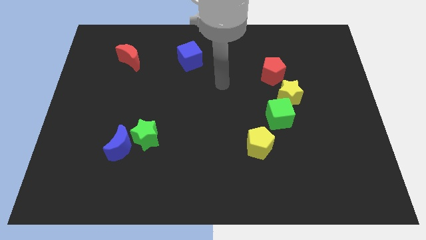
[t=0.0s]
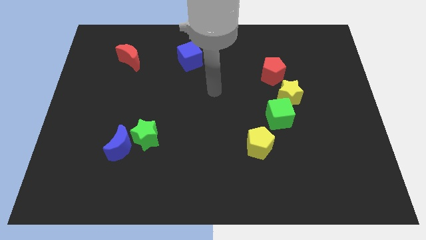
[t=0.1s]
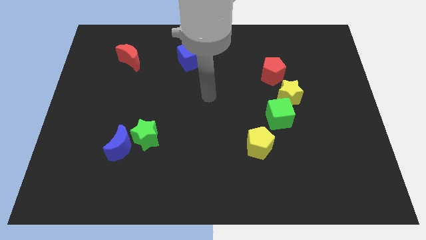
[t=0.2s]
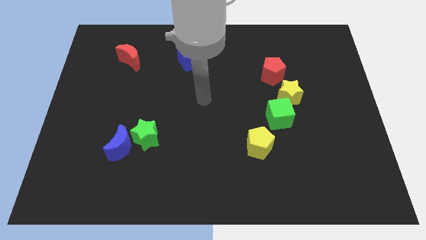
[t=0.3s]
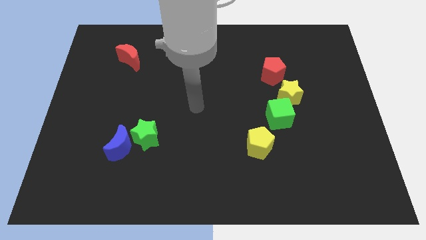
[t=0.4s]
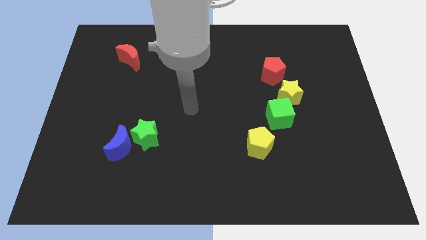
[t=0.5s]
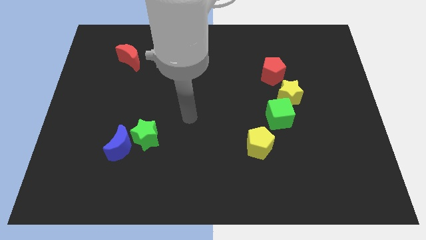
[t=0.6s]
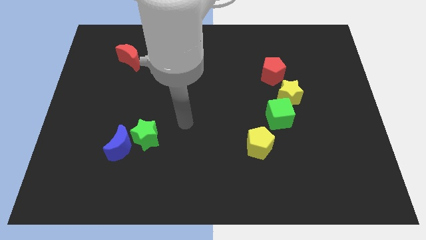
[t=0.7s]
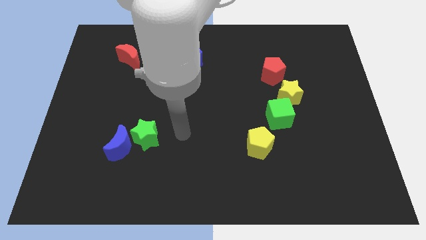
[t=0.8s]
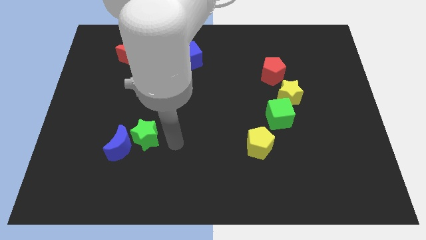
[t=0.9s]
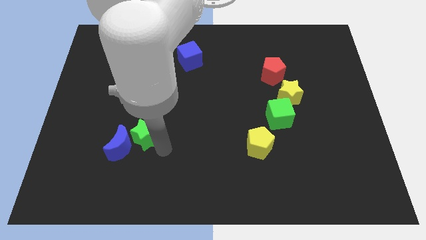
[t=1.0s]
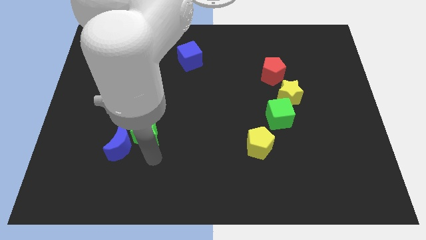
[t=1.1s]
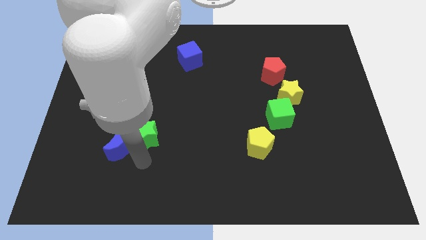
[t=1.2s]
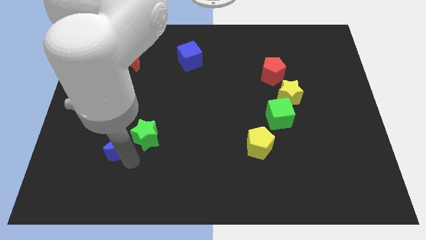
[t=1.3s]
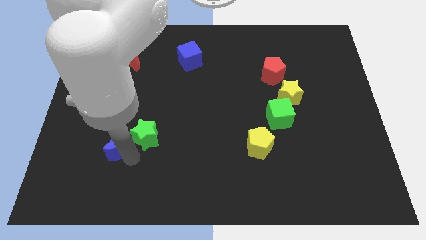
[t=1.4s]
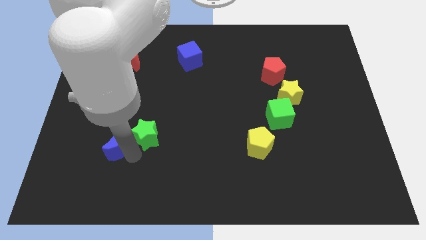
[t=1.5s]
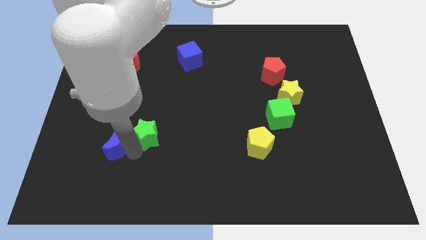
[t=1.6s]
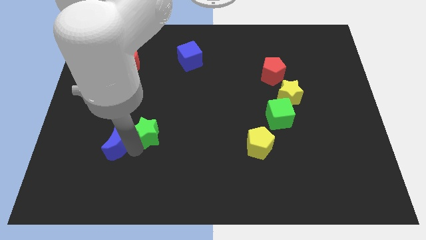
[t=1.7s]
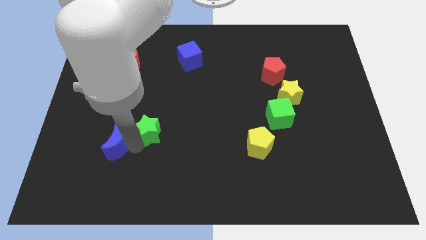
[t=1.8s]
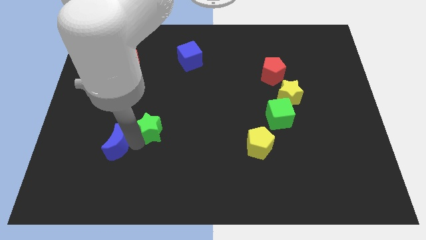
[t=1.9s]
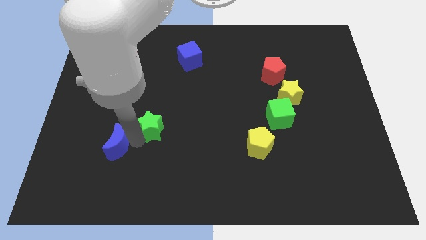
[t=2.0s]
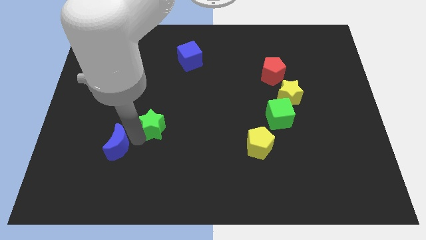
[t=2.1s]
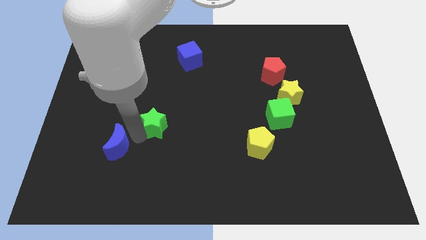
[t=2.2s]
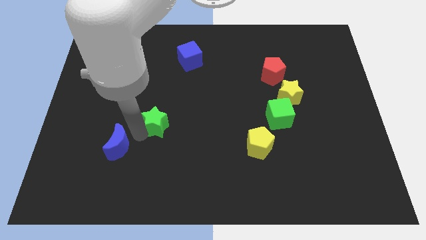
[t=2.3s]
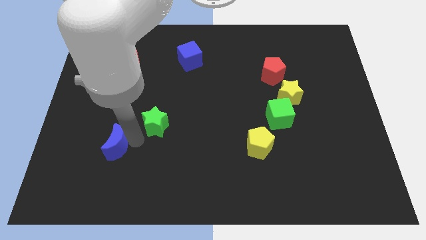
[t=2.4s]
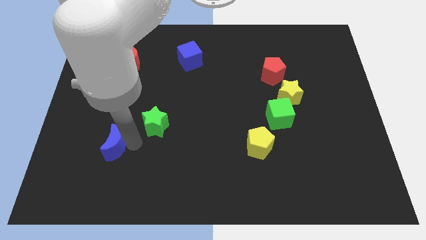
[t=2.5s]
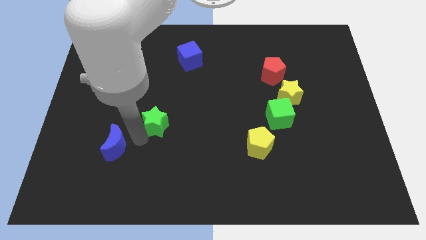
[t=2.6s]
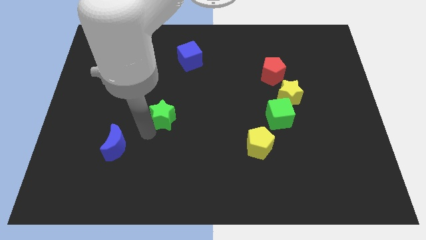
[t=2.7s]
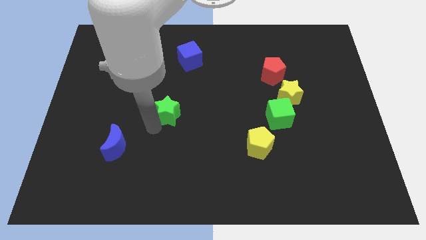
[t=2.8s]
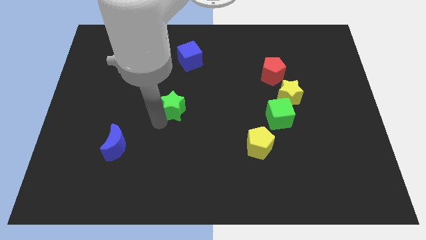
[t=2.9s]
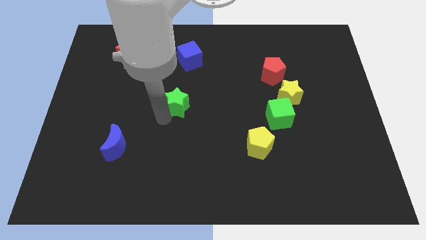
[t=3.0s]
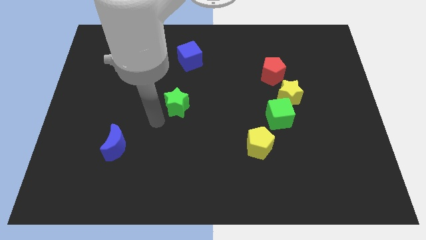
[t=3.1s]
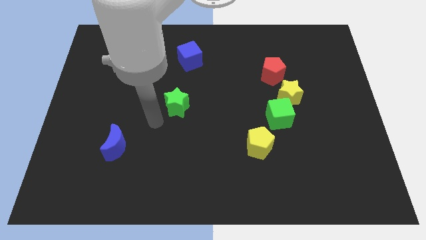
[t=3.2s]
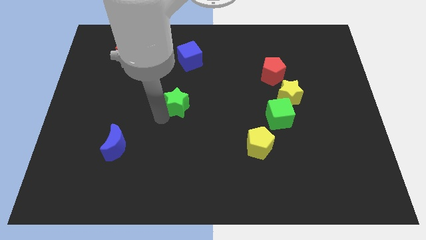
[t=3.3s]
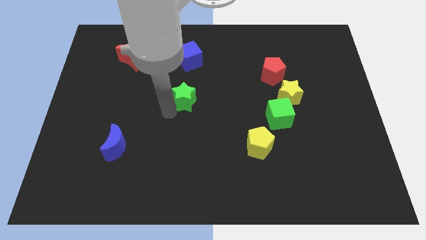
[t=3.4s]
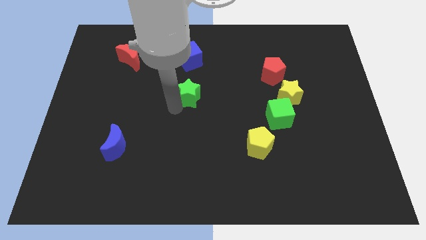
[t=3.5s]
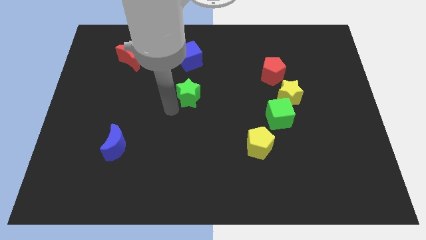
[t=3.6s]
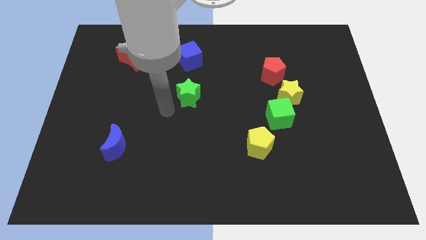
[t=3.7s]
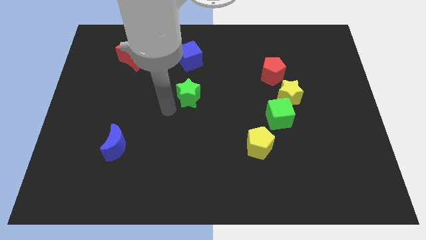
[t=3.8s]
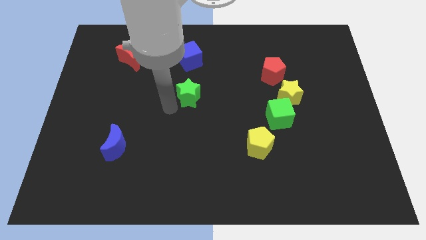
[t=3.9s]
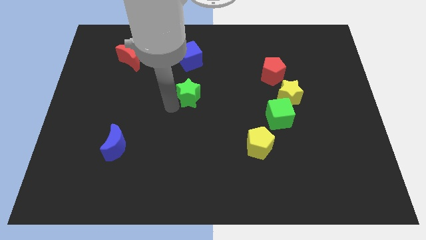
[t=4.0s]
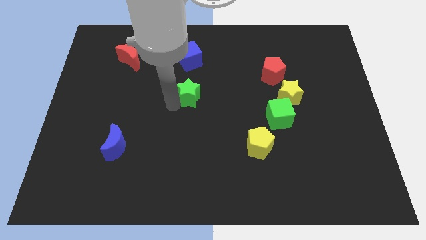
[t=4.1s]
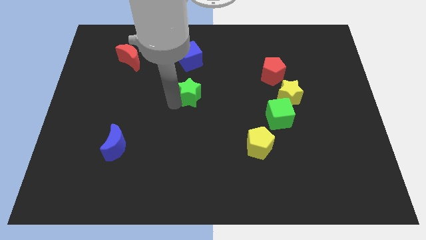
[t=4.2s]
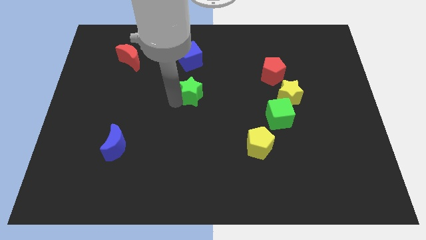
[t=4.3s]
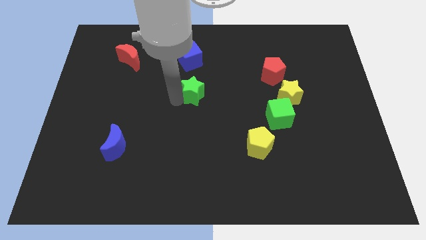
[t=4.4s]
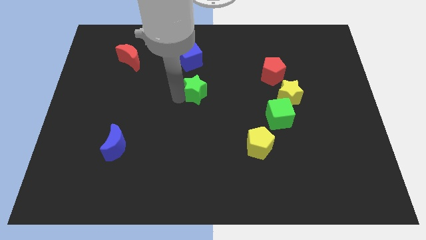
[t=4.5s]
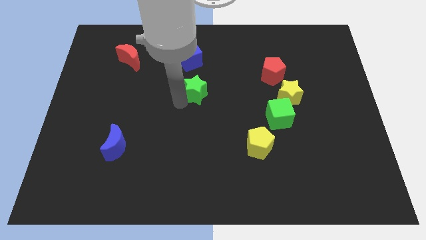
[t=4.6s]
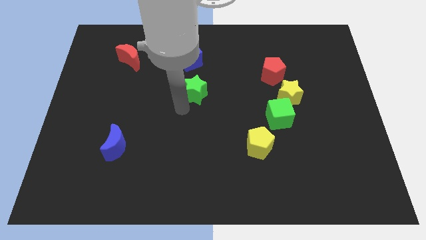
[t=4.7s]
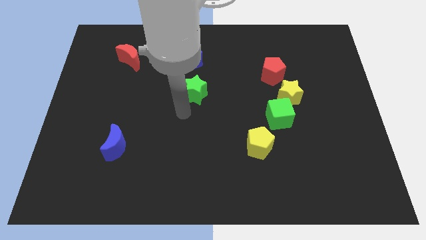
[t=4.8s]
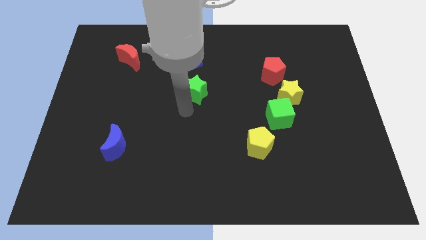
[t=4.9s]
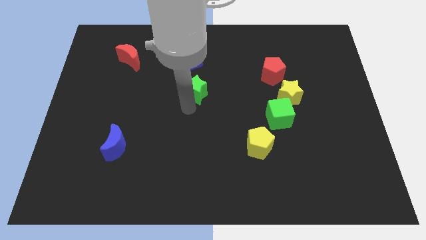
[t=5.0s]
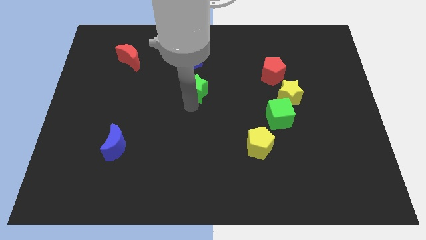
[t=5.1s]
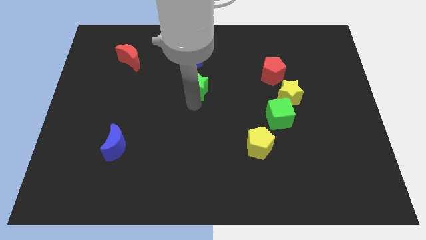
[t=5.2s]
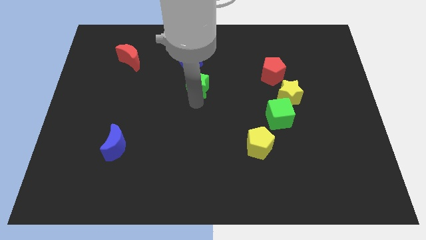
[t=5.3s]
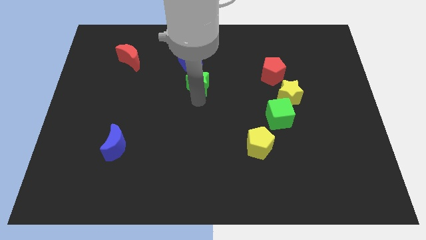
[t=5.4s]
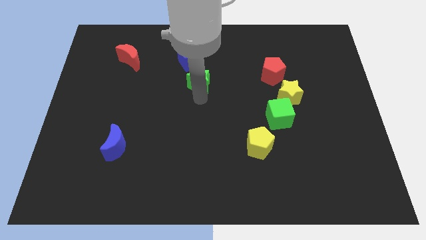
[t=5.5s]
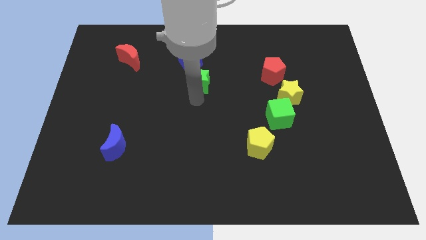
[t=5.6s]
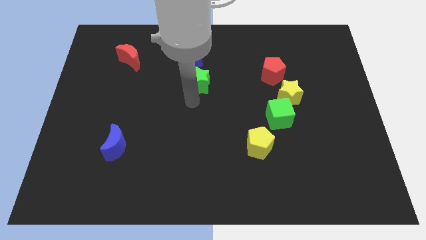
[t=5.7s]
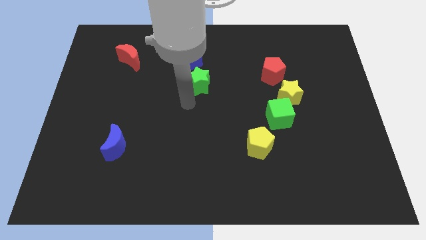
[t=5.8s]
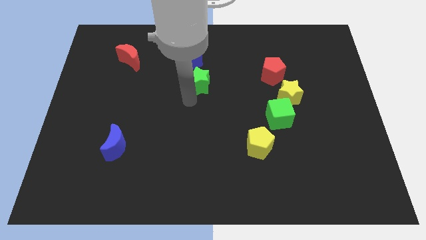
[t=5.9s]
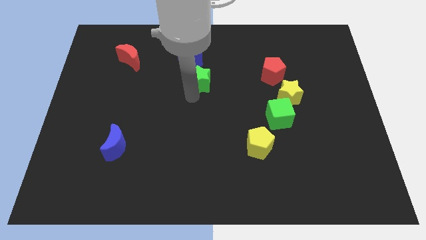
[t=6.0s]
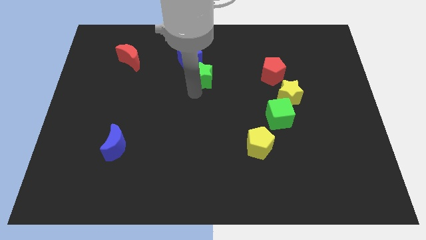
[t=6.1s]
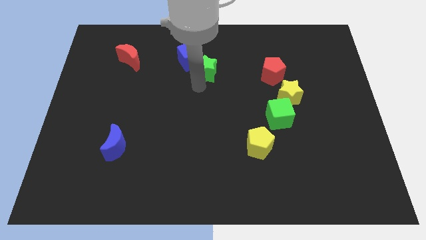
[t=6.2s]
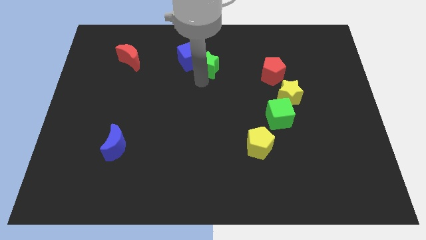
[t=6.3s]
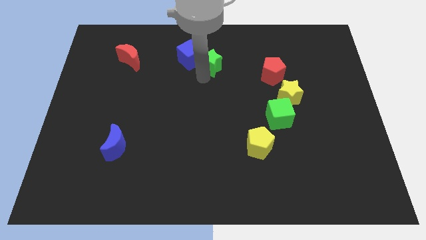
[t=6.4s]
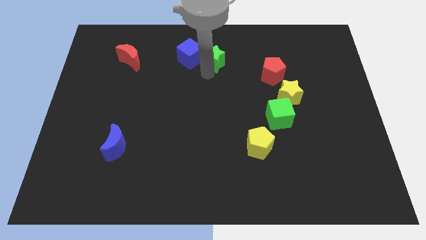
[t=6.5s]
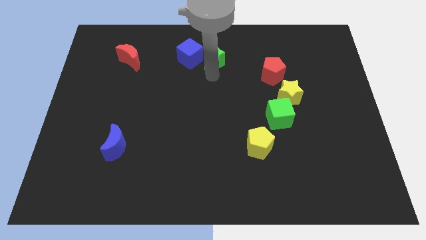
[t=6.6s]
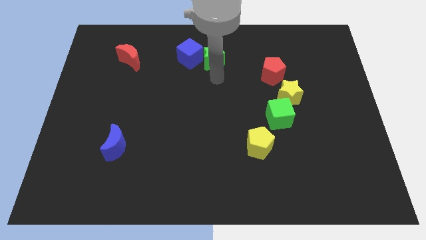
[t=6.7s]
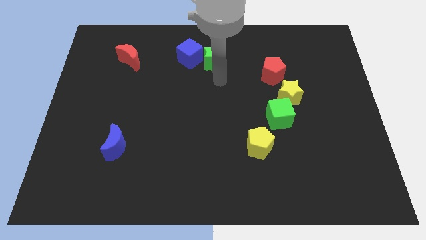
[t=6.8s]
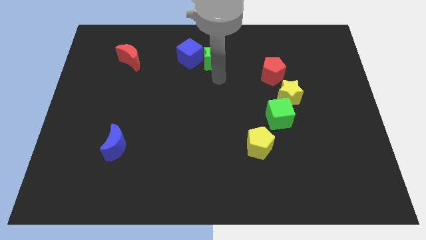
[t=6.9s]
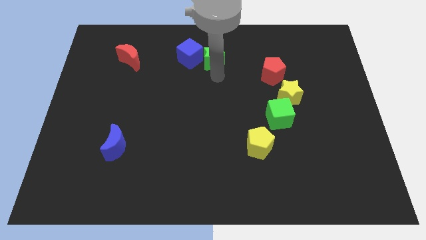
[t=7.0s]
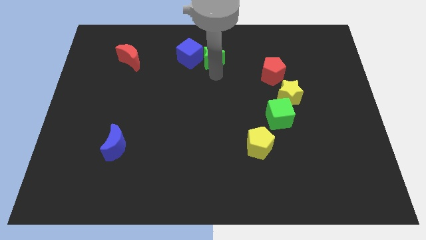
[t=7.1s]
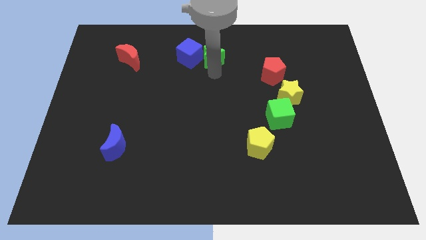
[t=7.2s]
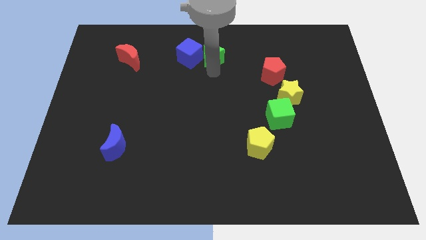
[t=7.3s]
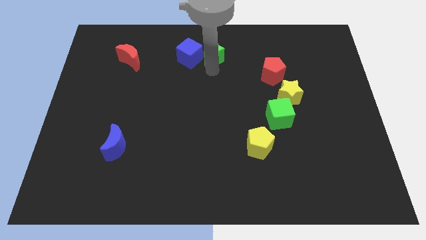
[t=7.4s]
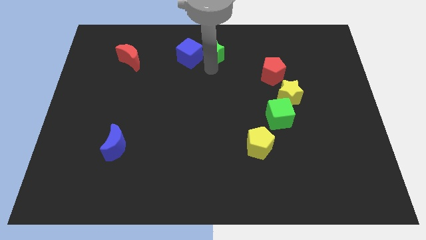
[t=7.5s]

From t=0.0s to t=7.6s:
put the green star to the top
